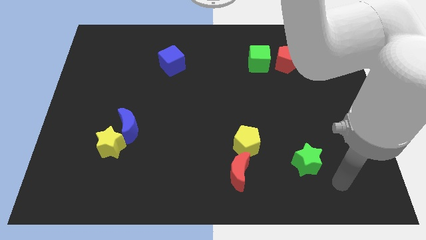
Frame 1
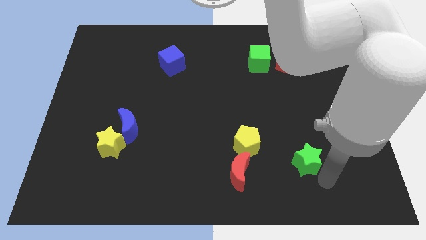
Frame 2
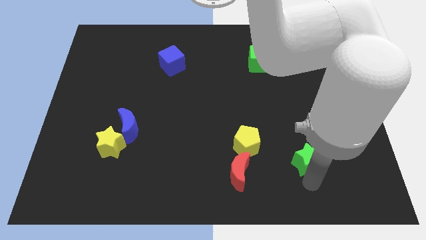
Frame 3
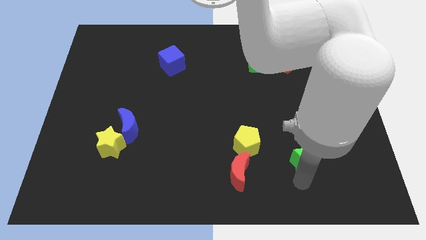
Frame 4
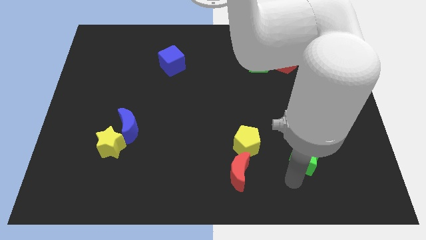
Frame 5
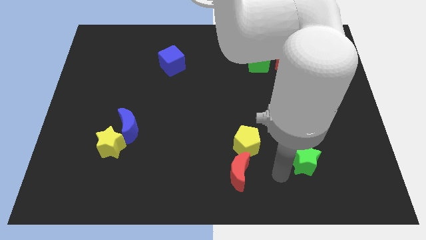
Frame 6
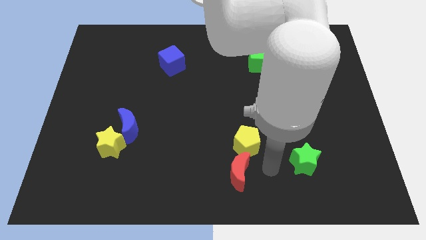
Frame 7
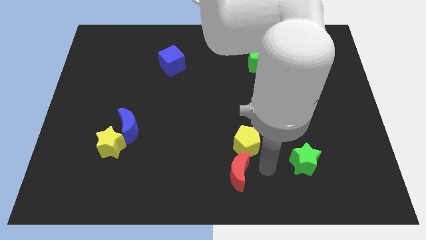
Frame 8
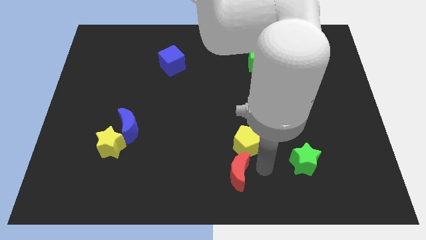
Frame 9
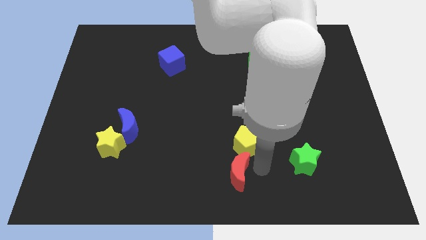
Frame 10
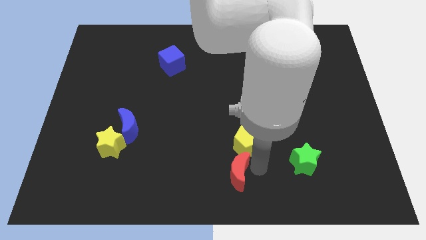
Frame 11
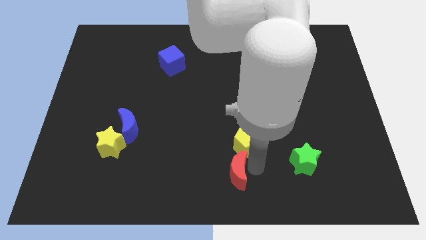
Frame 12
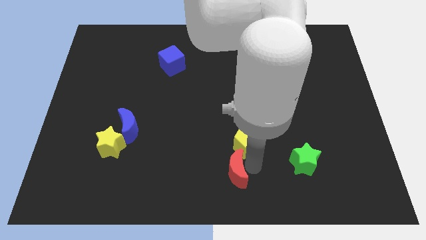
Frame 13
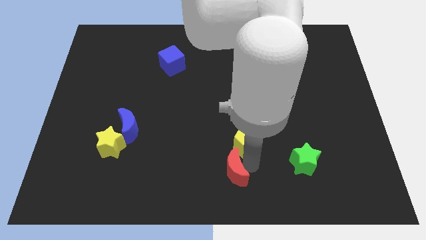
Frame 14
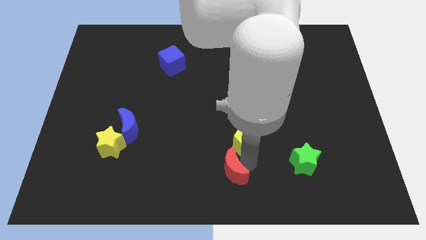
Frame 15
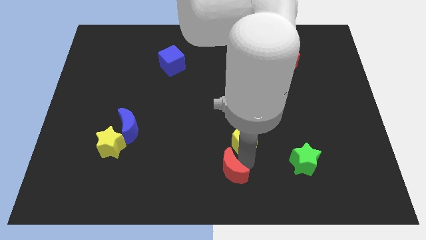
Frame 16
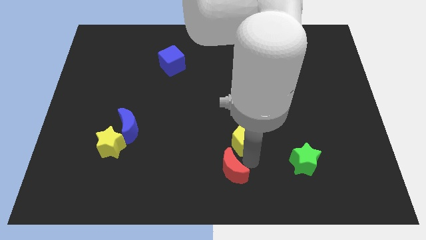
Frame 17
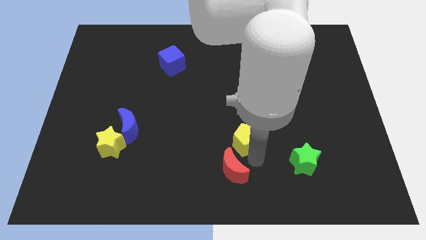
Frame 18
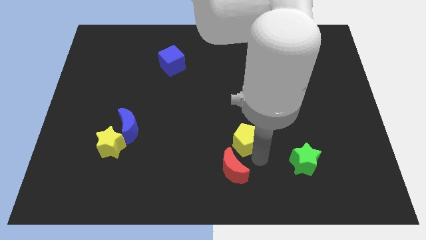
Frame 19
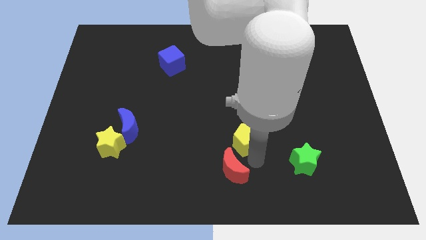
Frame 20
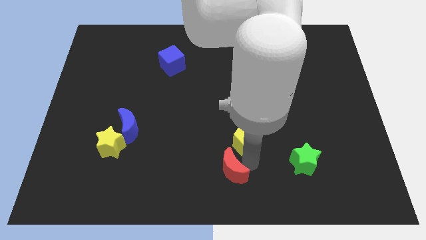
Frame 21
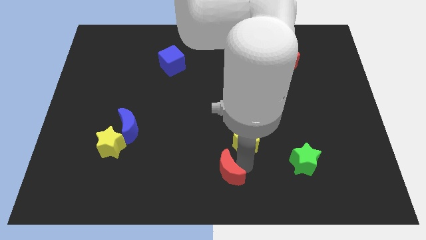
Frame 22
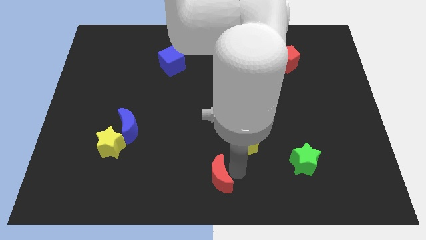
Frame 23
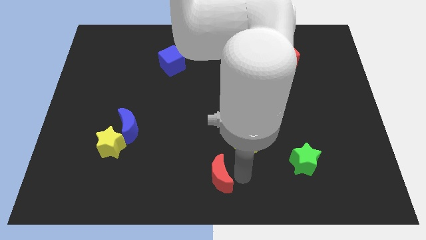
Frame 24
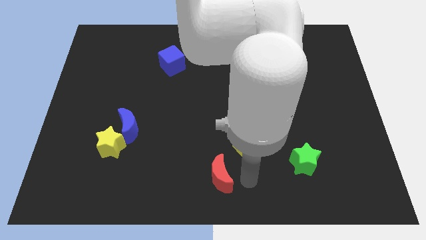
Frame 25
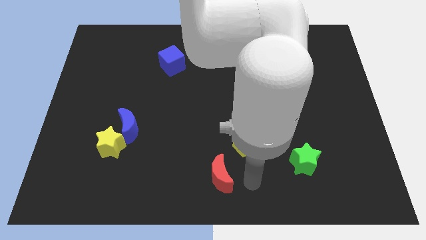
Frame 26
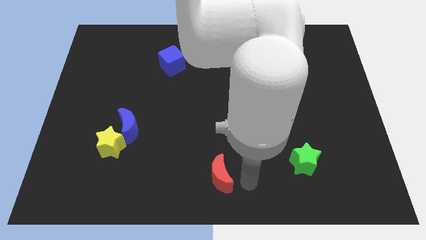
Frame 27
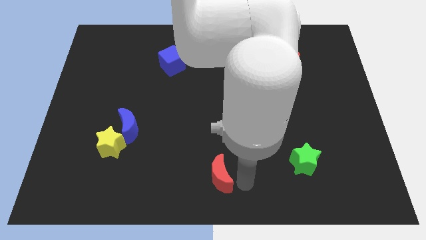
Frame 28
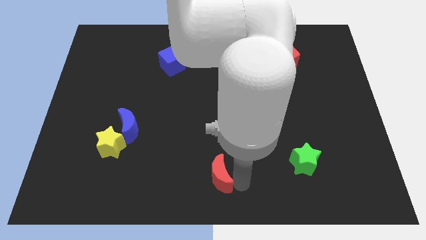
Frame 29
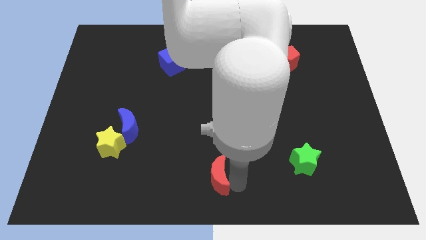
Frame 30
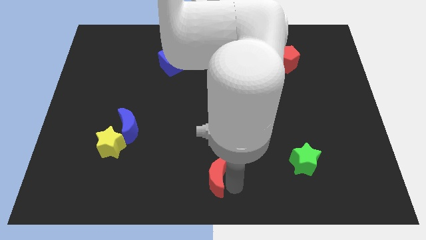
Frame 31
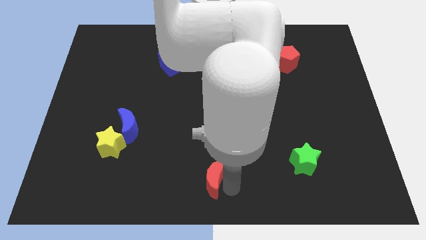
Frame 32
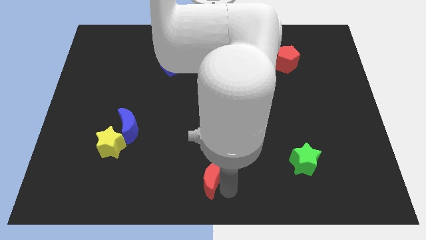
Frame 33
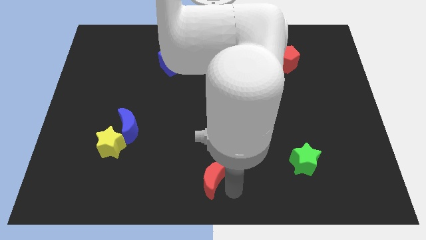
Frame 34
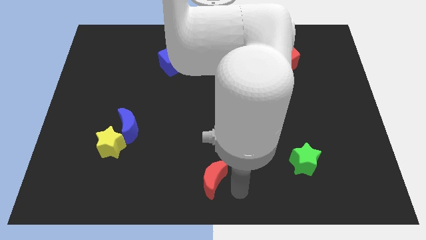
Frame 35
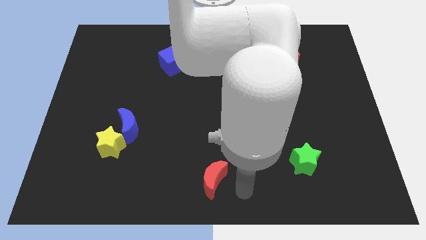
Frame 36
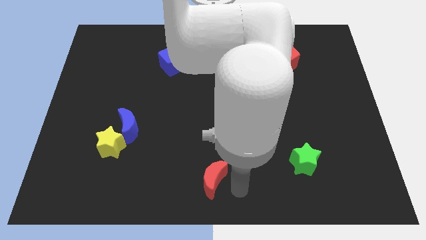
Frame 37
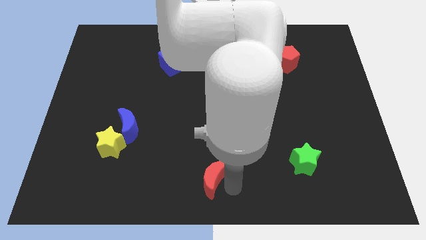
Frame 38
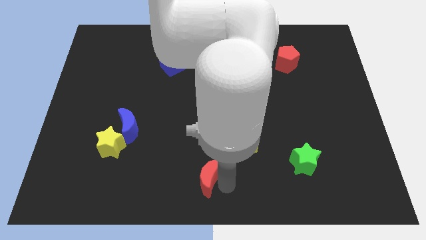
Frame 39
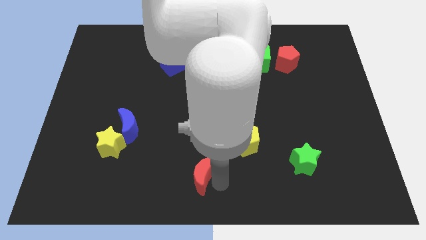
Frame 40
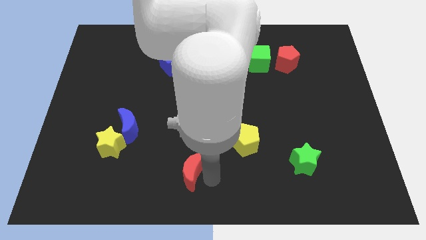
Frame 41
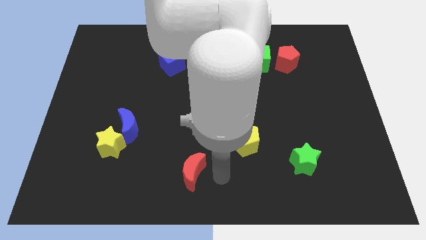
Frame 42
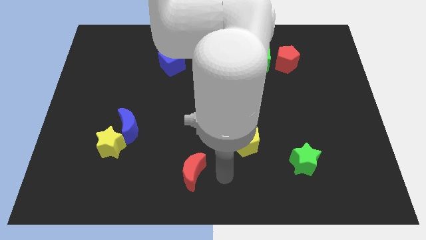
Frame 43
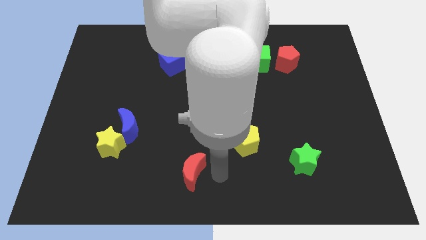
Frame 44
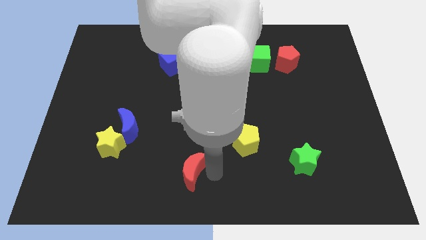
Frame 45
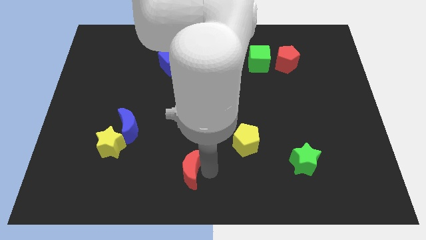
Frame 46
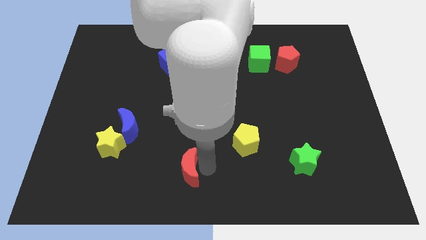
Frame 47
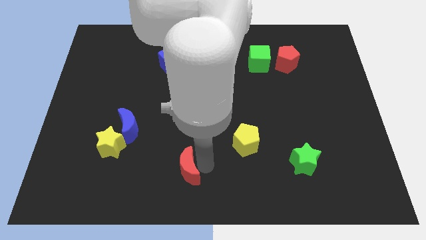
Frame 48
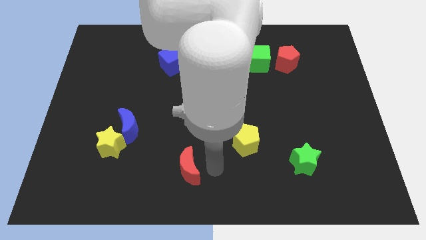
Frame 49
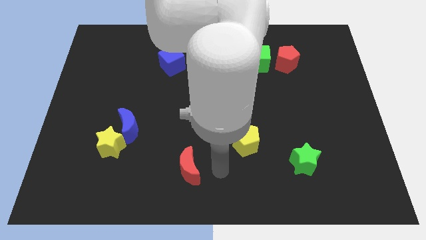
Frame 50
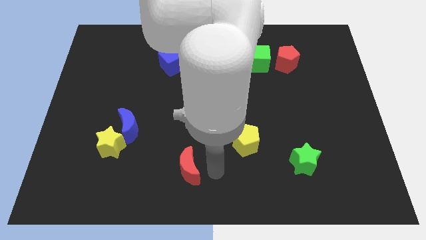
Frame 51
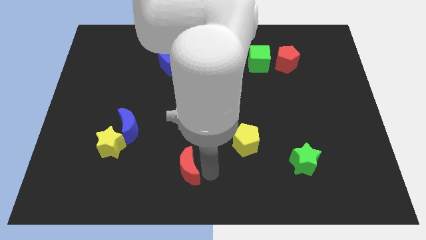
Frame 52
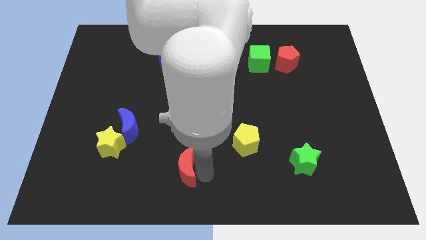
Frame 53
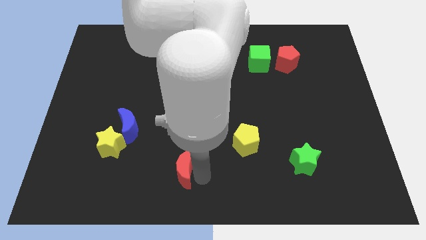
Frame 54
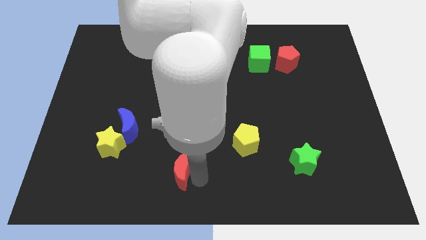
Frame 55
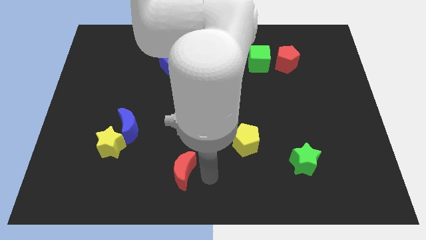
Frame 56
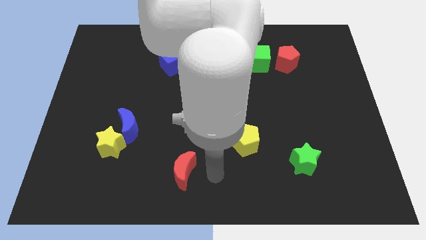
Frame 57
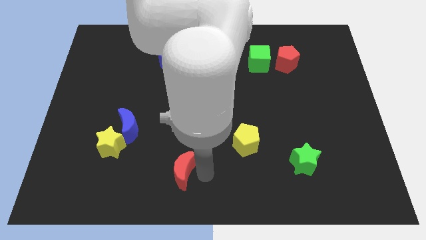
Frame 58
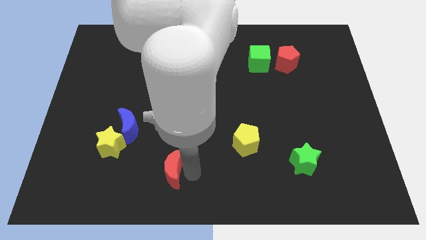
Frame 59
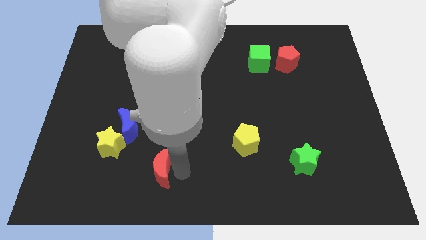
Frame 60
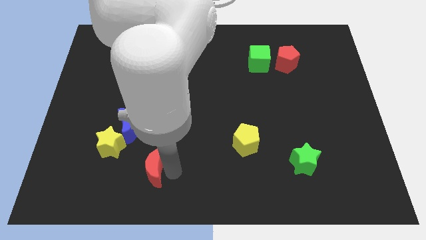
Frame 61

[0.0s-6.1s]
move the red moon diagonally down and to the right of the yellow star

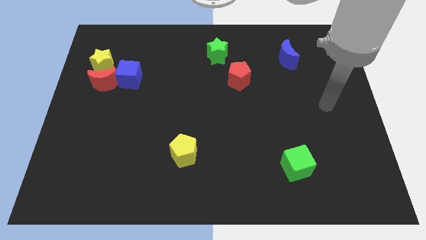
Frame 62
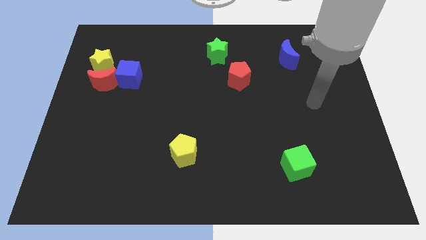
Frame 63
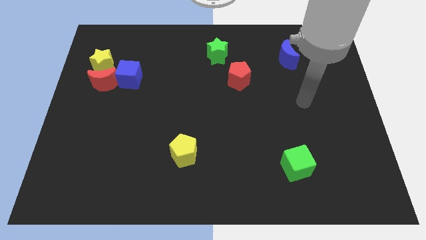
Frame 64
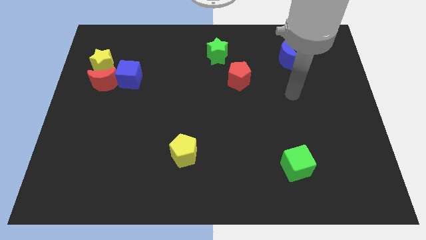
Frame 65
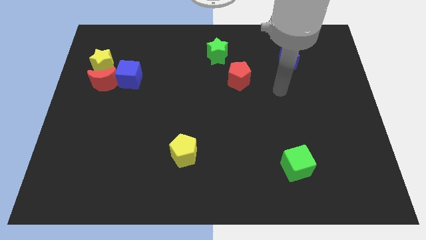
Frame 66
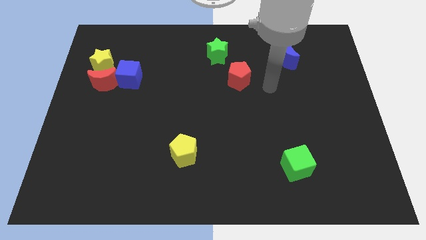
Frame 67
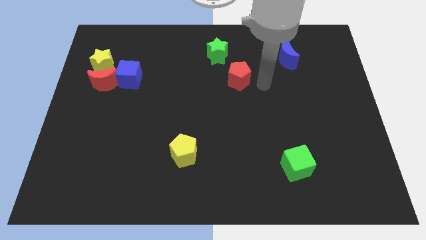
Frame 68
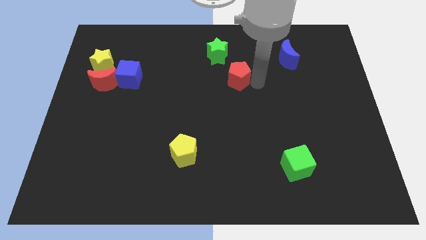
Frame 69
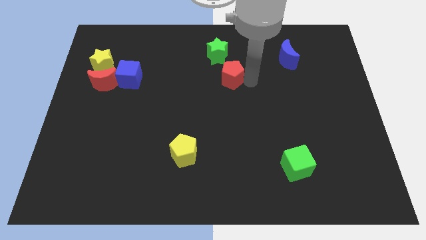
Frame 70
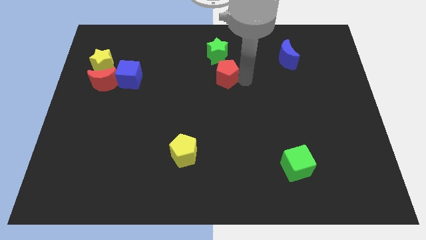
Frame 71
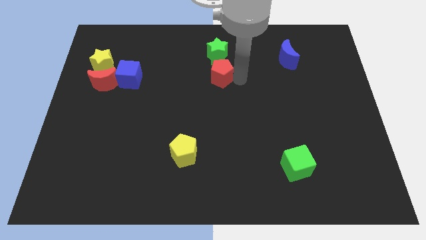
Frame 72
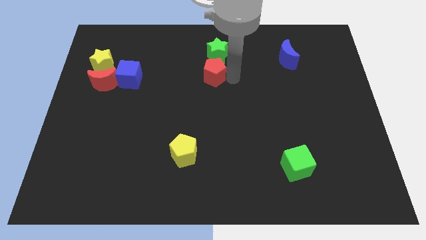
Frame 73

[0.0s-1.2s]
push the red pentagon to the bottom left side of the green star
